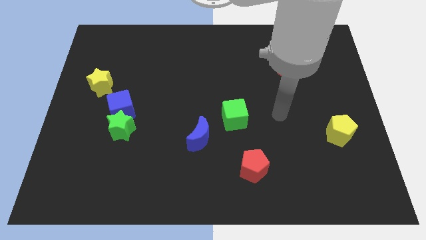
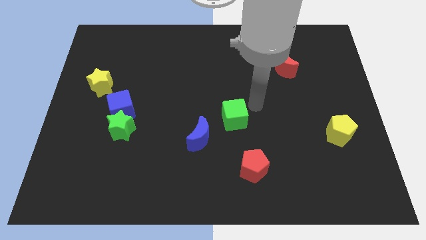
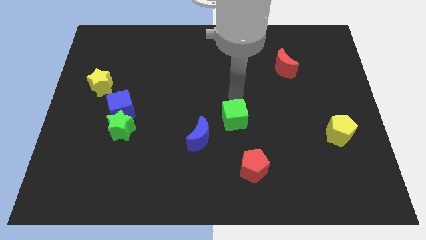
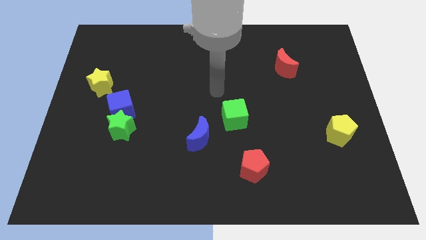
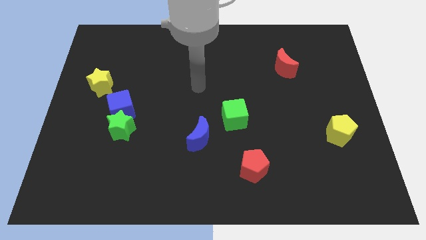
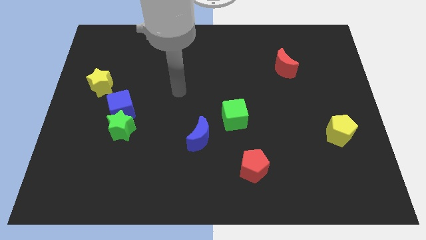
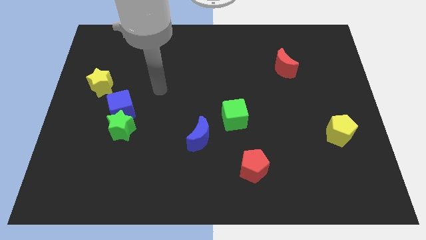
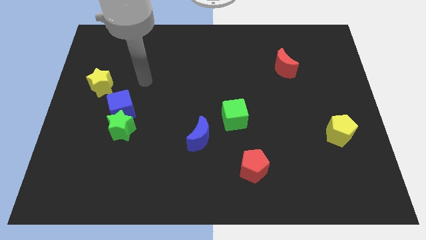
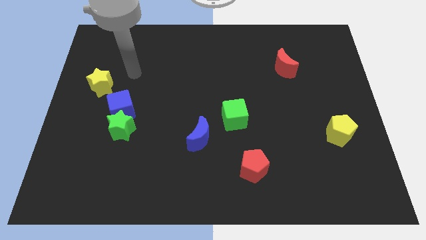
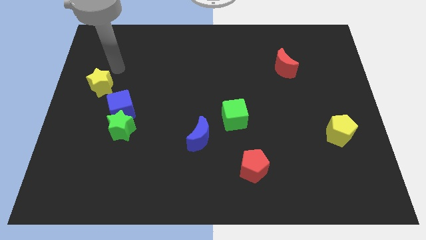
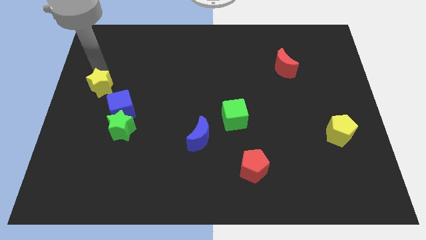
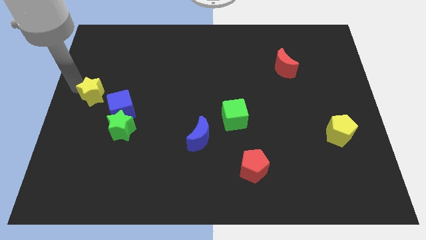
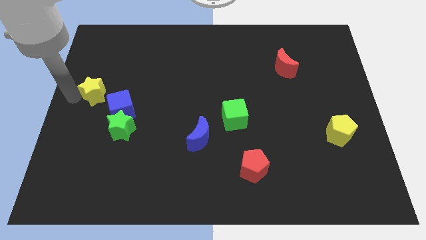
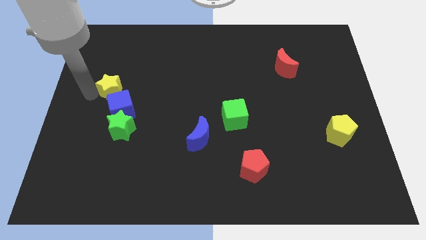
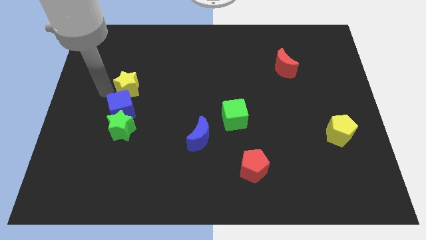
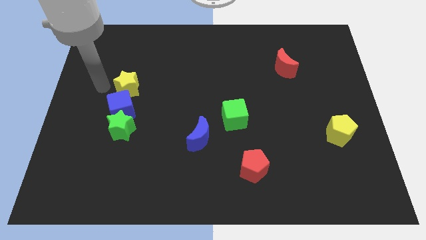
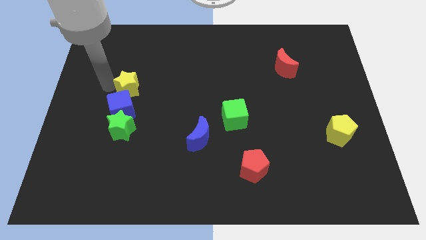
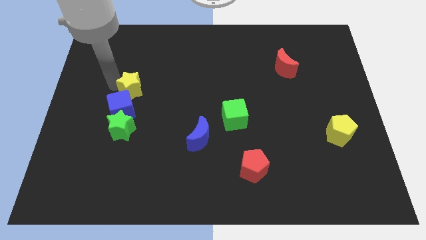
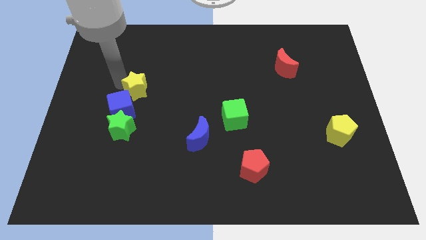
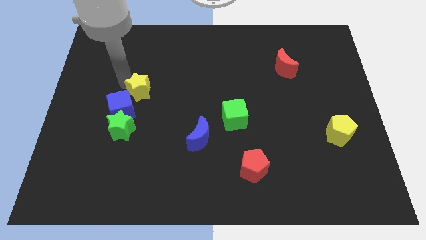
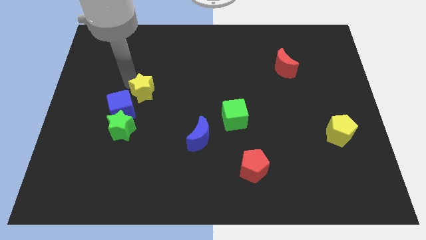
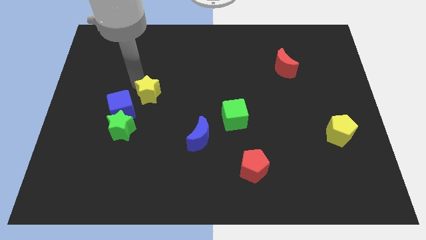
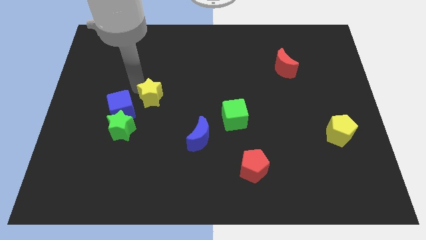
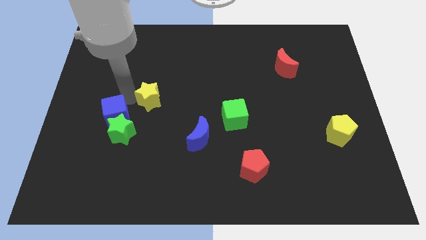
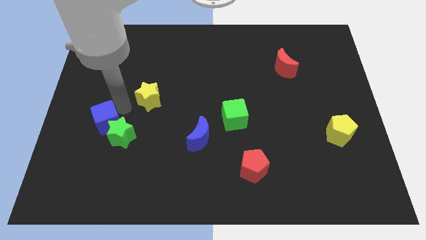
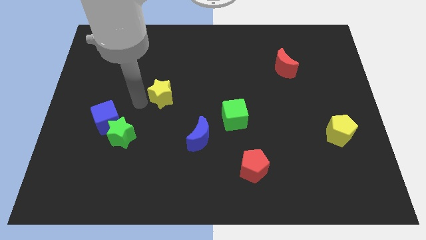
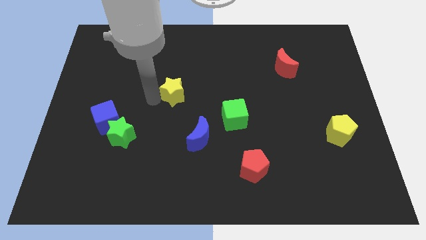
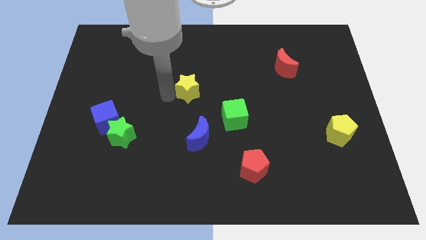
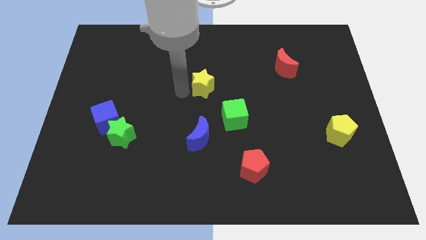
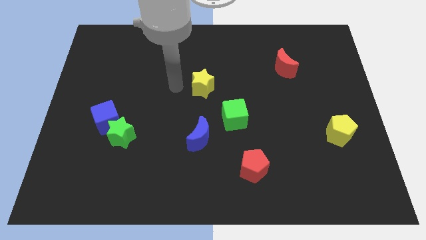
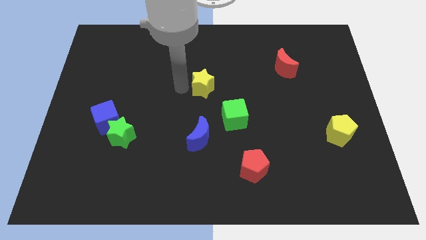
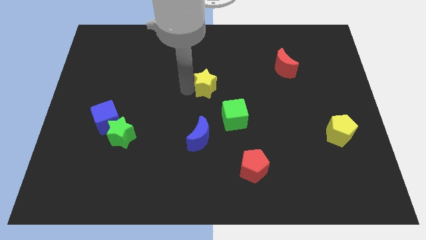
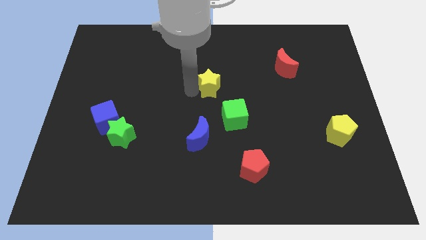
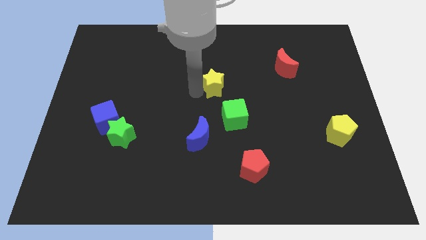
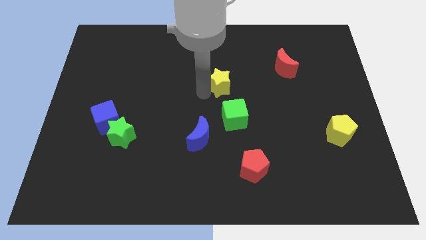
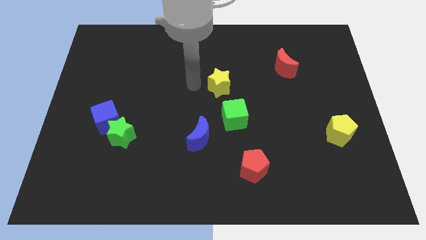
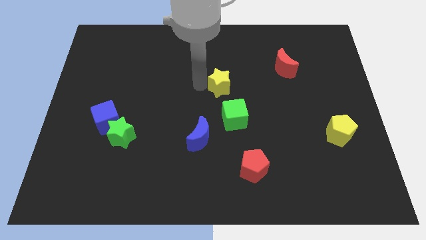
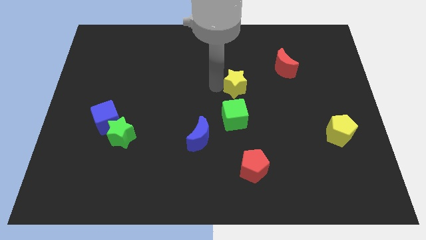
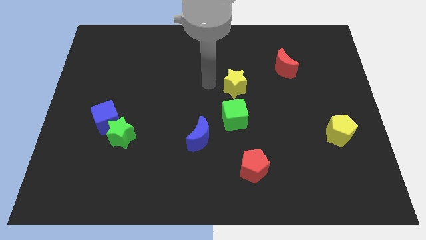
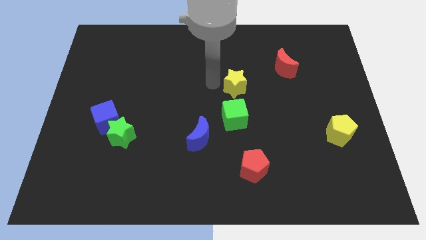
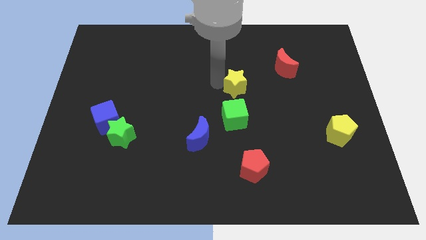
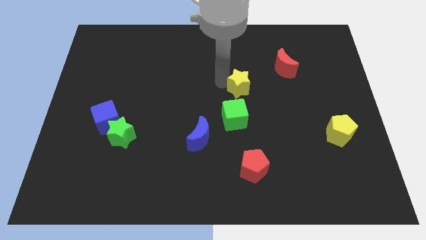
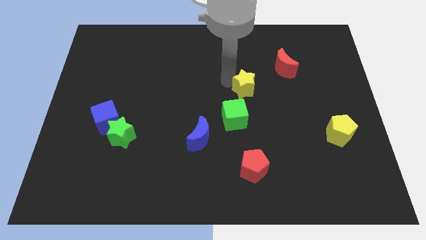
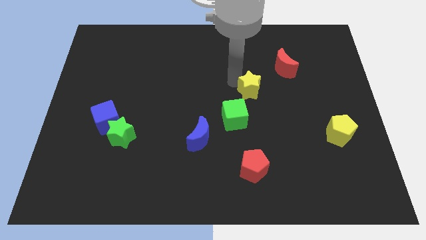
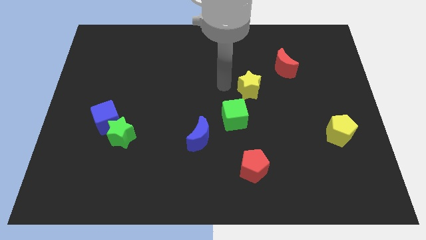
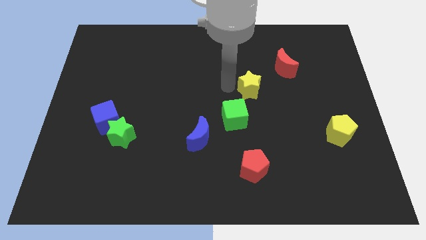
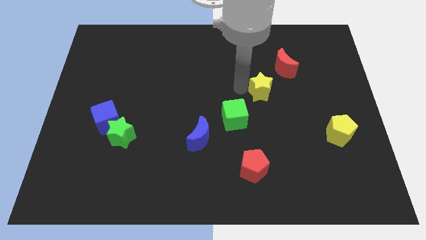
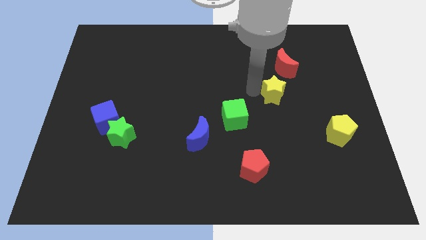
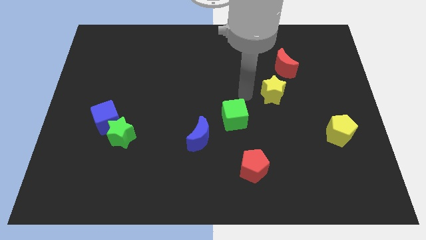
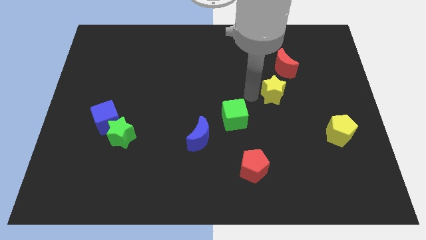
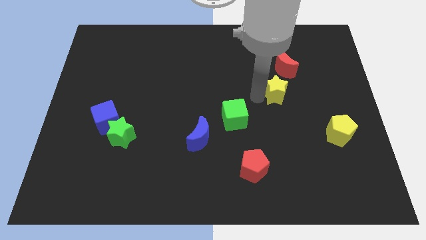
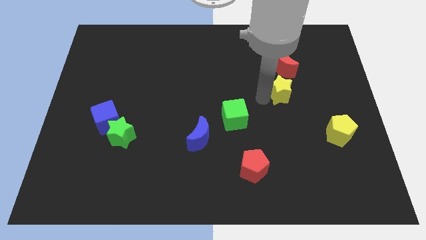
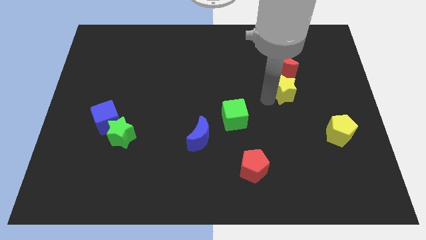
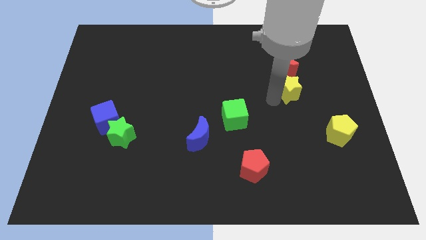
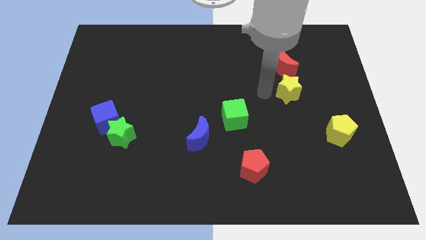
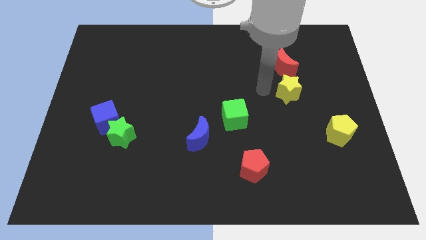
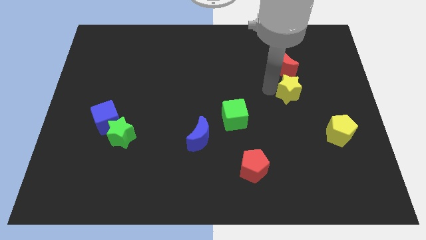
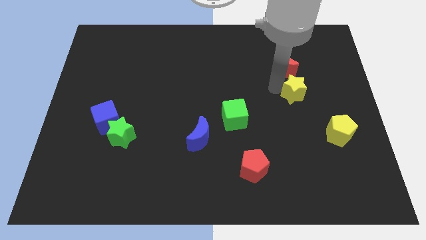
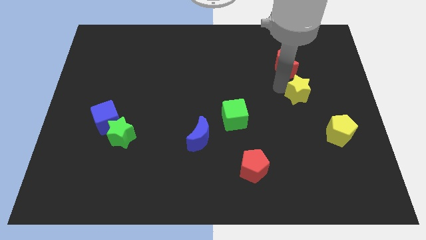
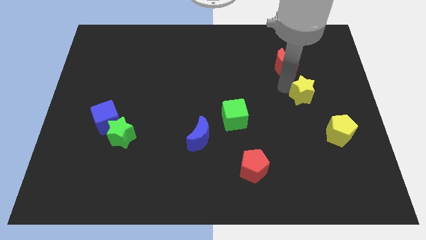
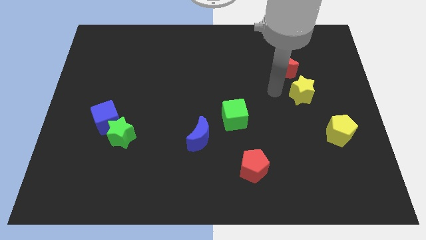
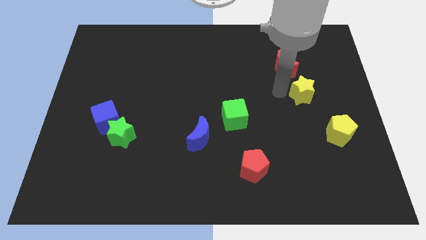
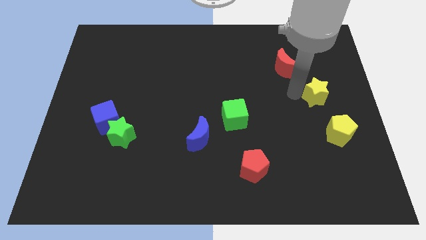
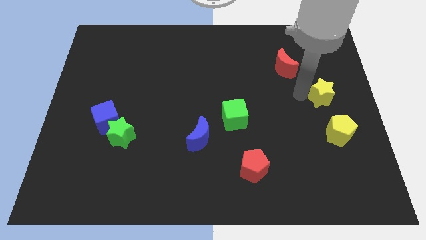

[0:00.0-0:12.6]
slide the yellow star to the center right

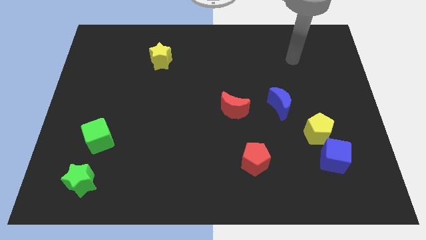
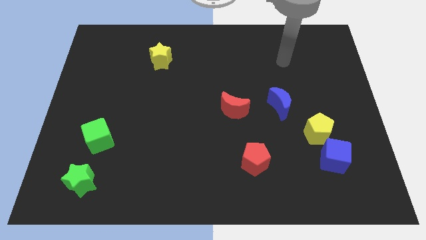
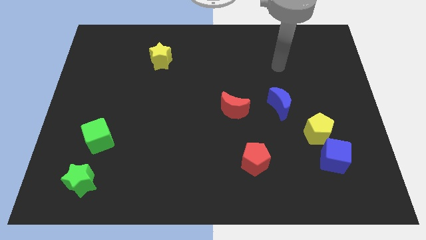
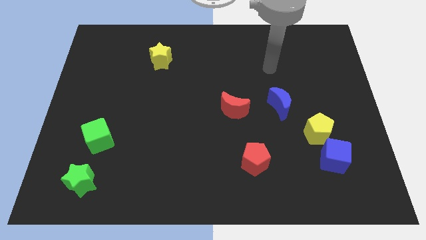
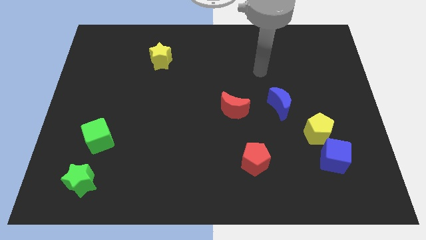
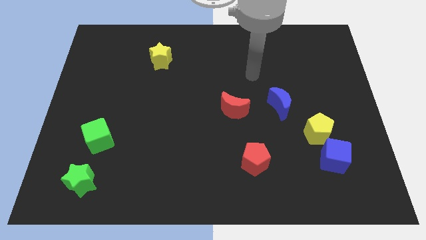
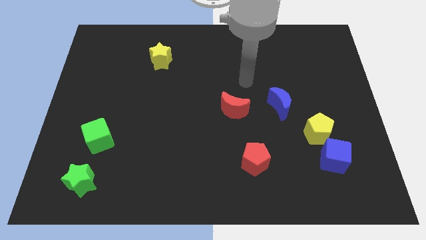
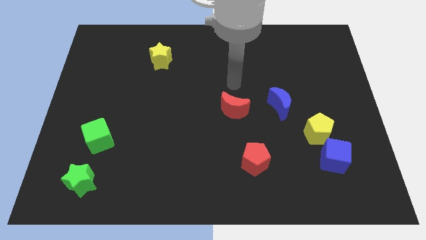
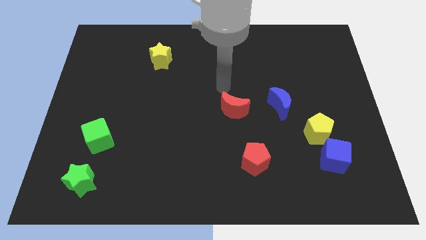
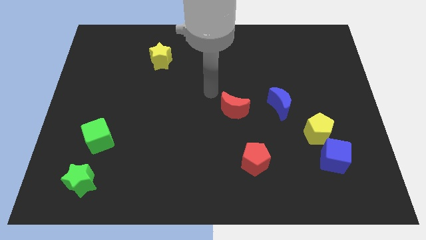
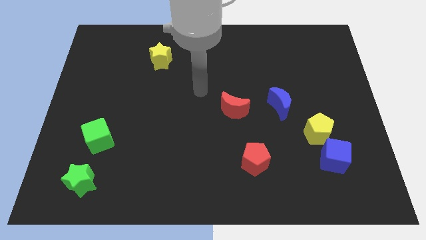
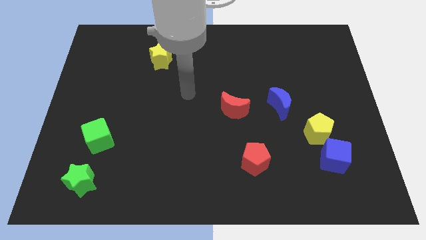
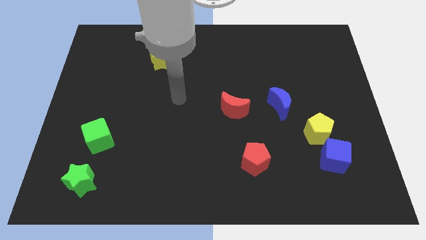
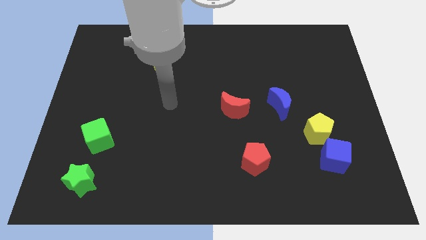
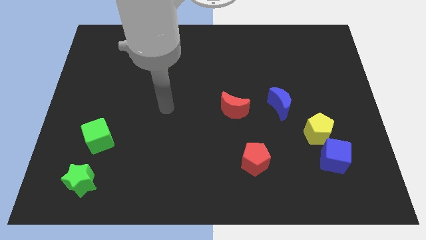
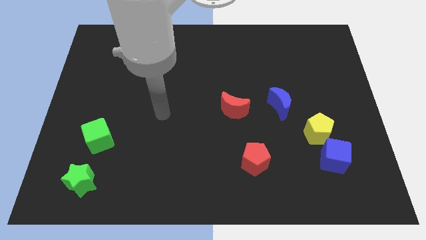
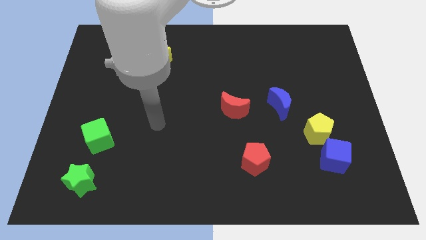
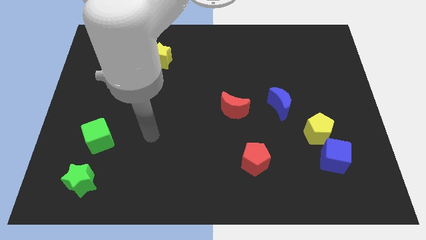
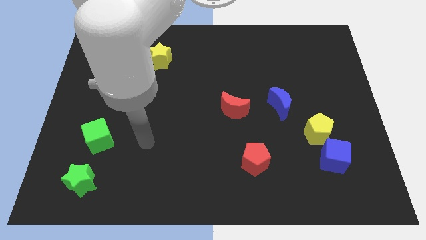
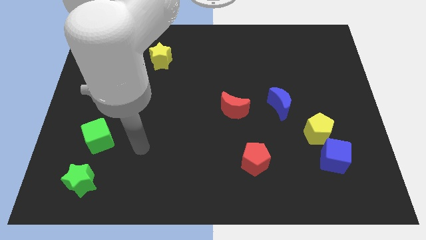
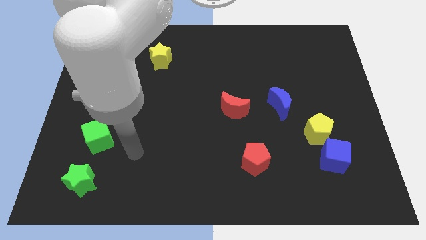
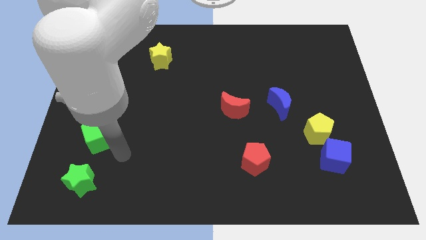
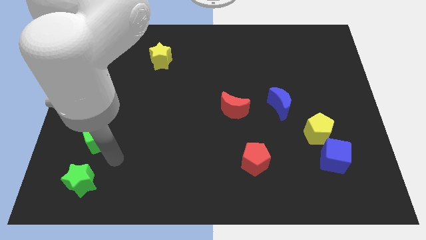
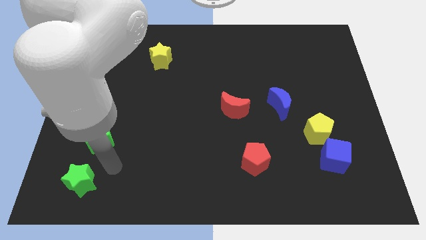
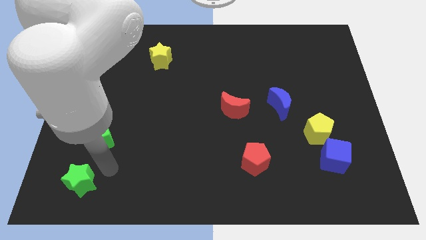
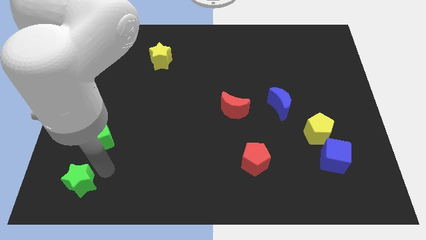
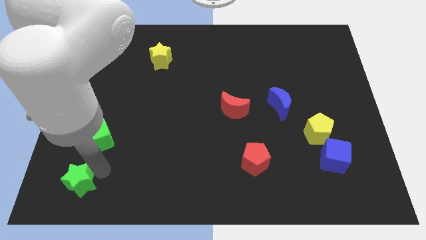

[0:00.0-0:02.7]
push the green star to the bottom left
